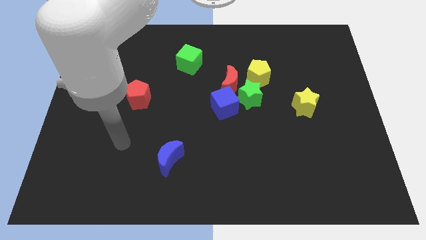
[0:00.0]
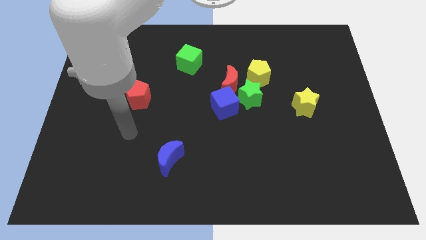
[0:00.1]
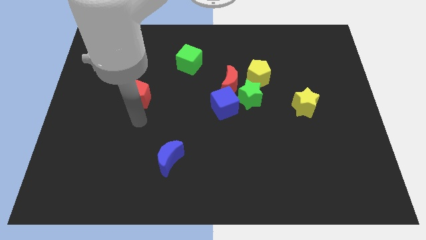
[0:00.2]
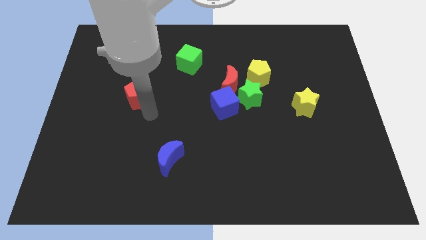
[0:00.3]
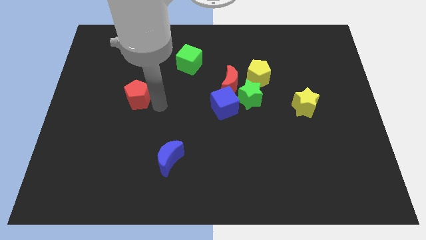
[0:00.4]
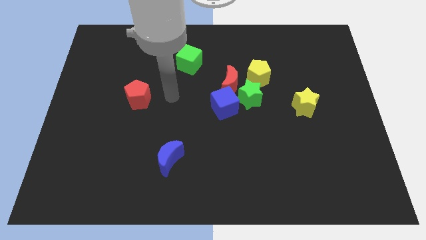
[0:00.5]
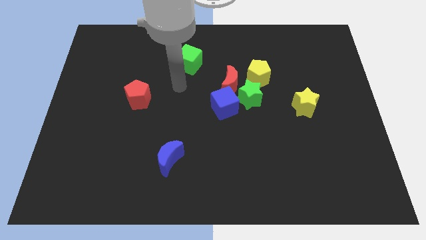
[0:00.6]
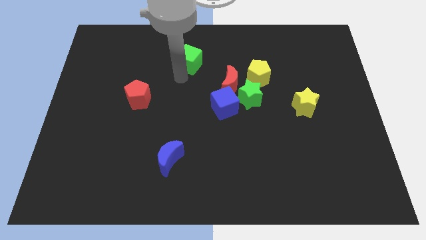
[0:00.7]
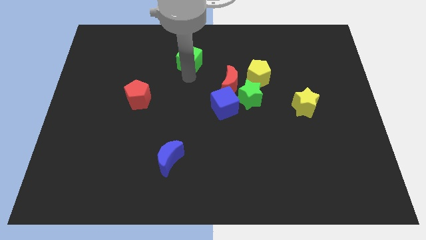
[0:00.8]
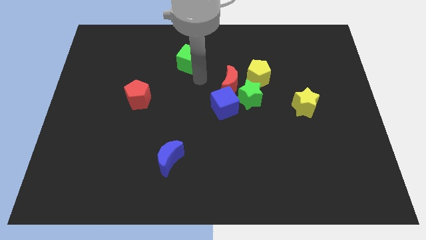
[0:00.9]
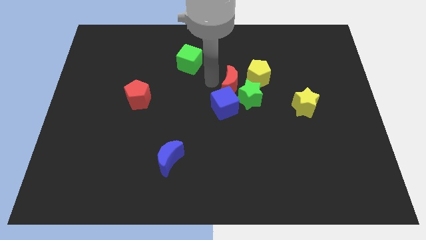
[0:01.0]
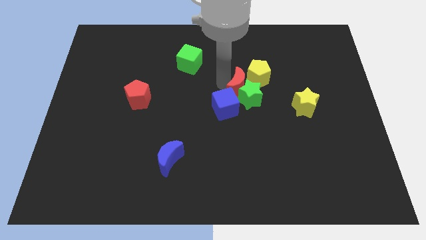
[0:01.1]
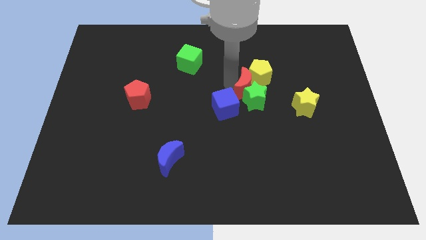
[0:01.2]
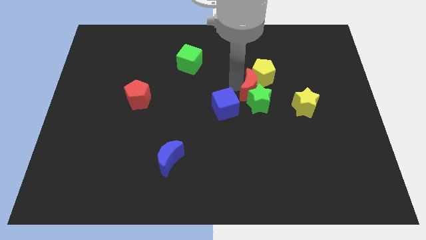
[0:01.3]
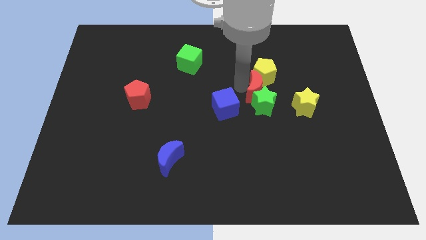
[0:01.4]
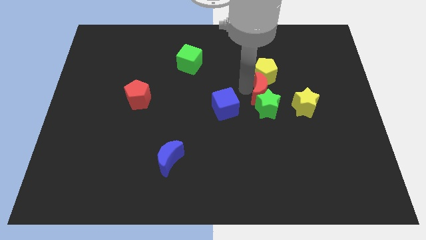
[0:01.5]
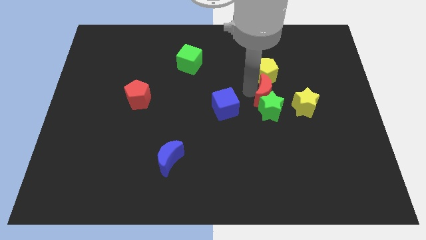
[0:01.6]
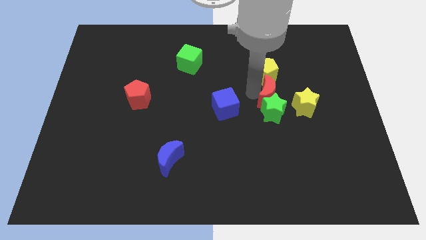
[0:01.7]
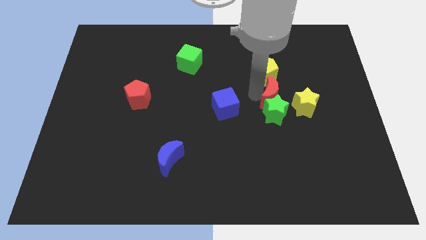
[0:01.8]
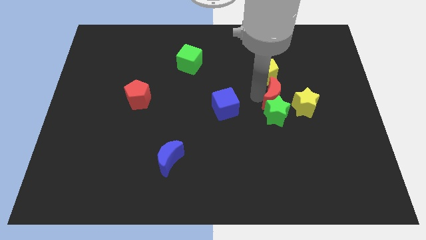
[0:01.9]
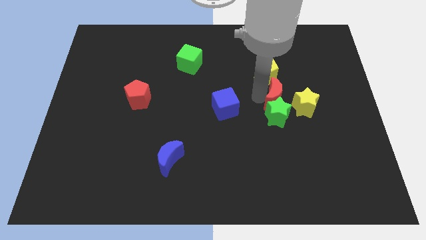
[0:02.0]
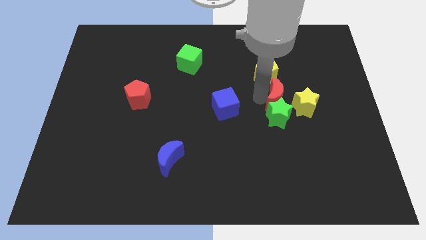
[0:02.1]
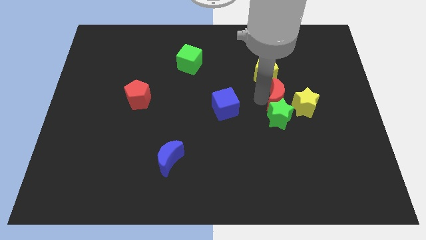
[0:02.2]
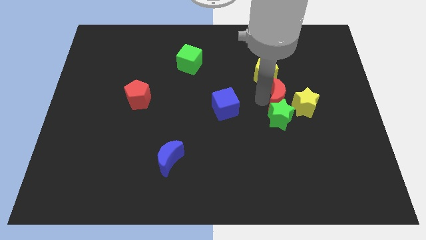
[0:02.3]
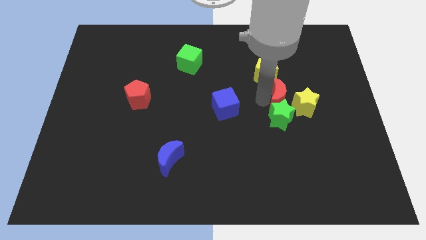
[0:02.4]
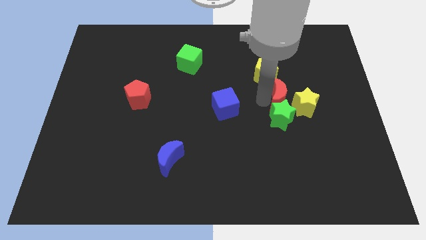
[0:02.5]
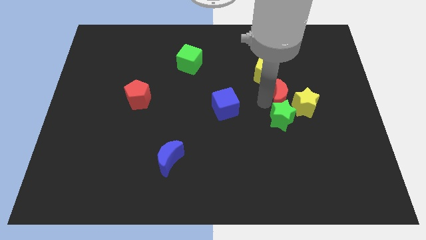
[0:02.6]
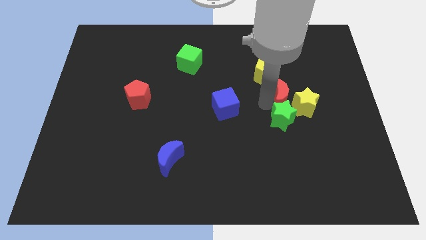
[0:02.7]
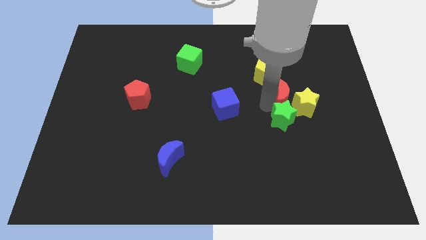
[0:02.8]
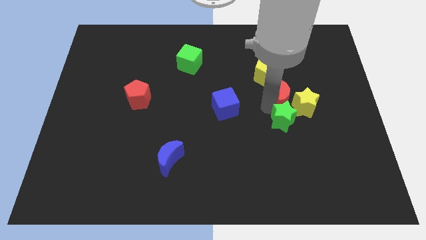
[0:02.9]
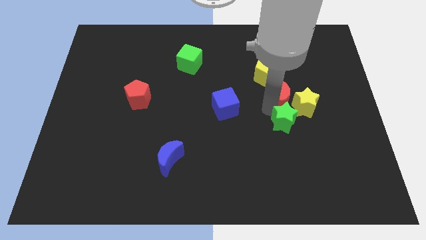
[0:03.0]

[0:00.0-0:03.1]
move the green star away from the red moon, yellow pentagon, and blue cube

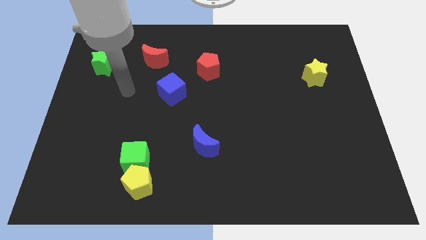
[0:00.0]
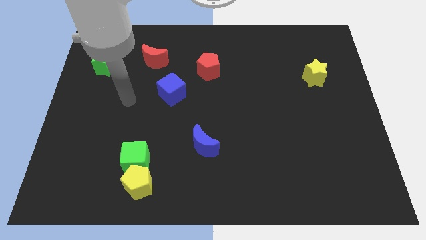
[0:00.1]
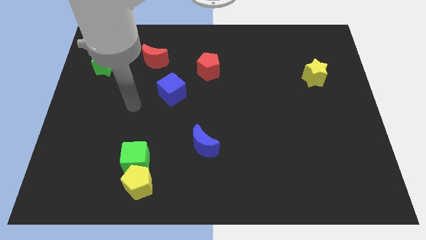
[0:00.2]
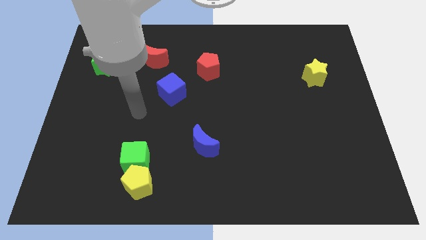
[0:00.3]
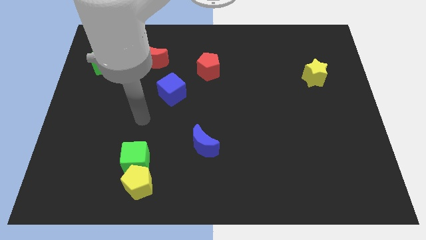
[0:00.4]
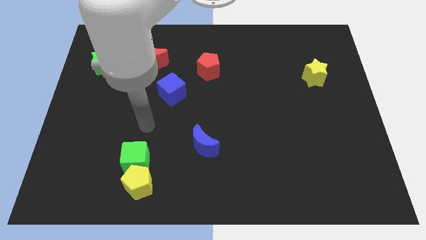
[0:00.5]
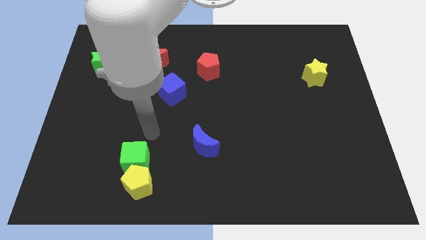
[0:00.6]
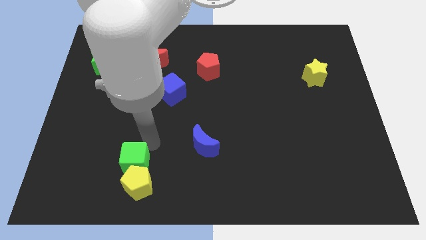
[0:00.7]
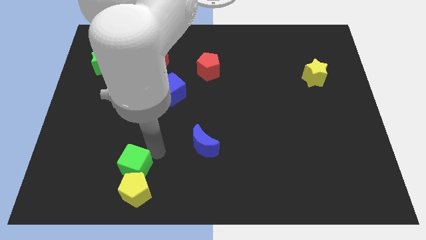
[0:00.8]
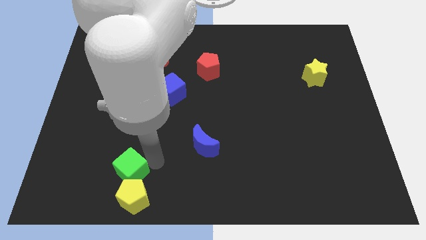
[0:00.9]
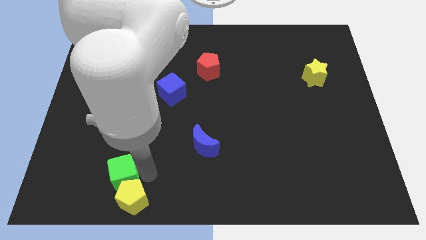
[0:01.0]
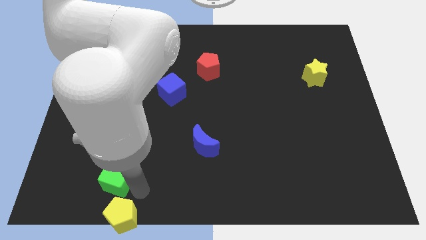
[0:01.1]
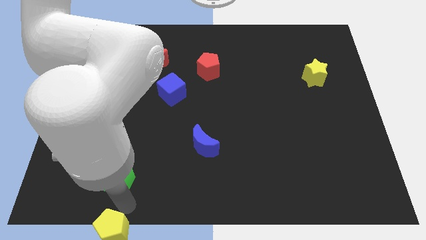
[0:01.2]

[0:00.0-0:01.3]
separate the green cube from the yellow pentagon

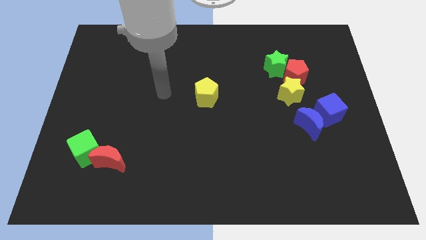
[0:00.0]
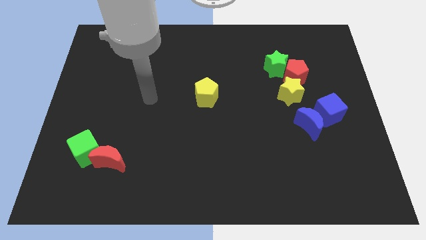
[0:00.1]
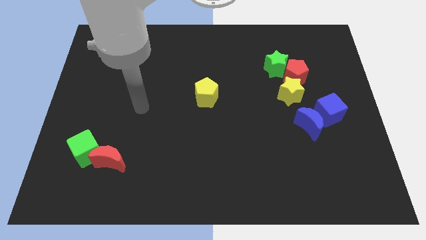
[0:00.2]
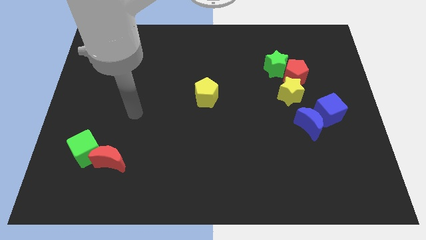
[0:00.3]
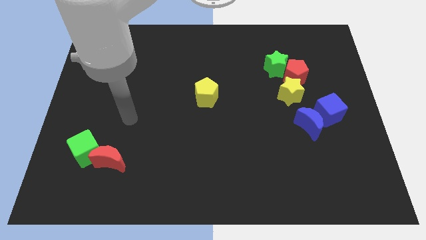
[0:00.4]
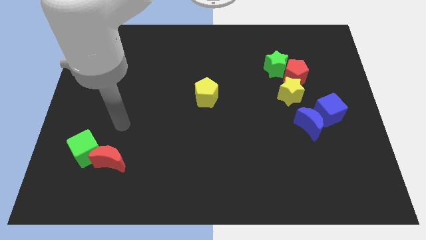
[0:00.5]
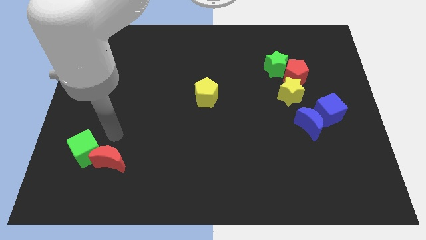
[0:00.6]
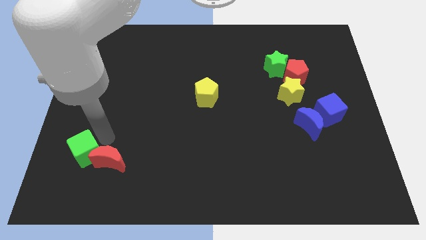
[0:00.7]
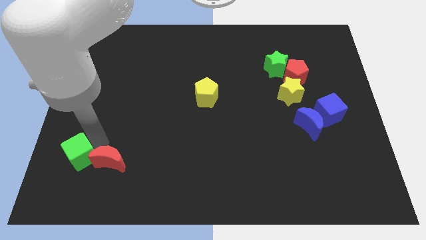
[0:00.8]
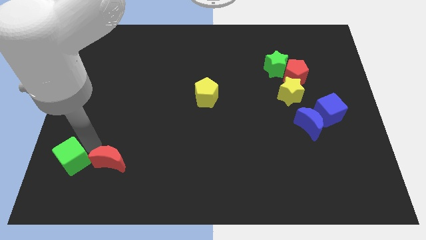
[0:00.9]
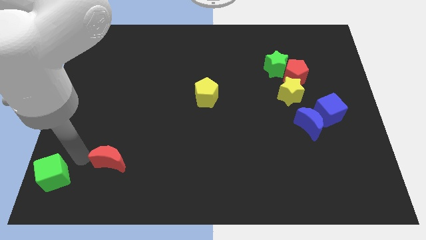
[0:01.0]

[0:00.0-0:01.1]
separate the red moon from the green cube

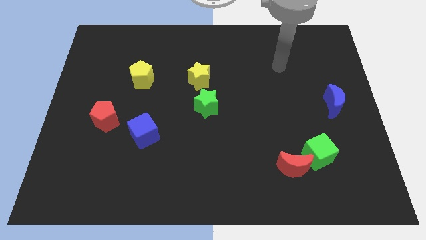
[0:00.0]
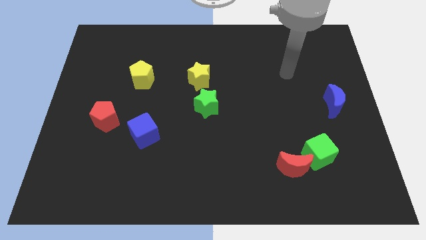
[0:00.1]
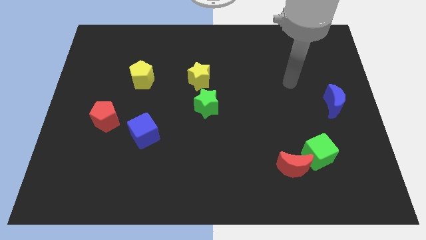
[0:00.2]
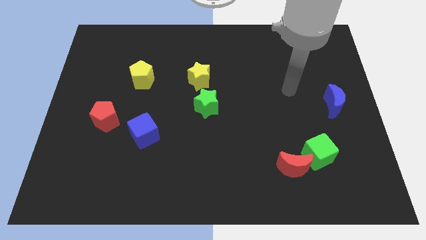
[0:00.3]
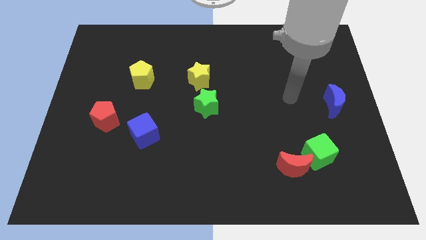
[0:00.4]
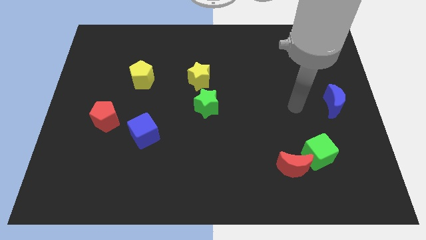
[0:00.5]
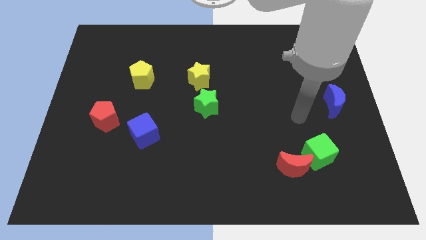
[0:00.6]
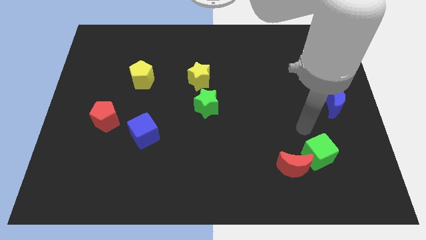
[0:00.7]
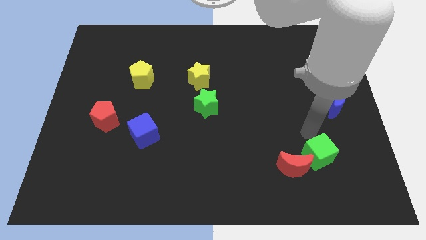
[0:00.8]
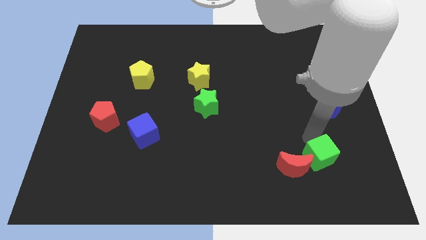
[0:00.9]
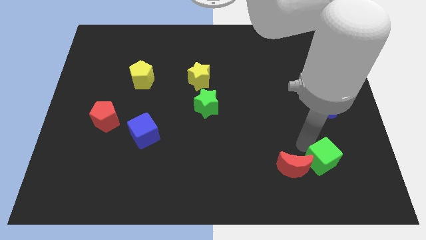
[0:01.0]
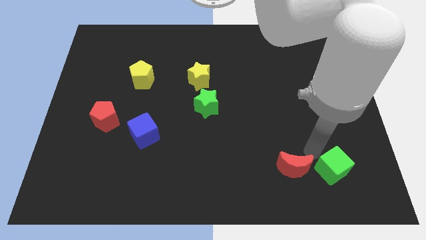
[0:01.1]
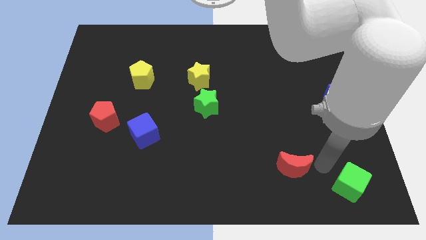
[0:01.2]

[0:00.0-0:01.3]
move the red moon away from the green cube

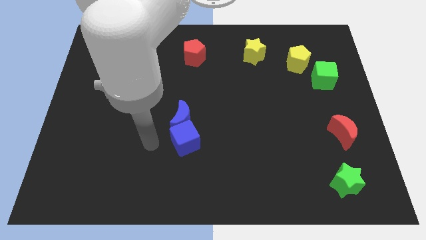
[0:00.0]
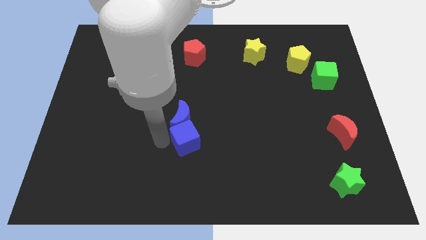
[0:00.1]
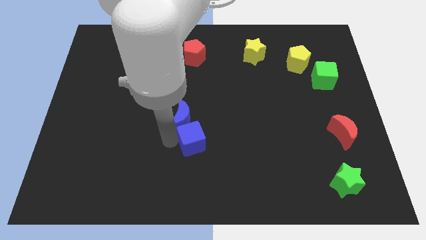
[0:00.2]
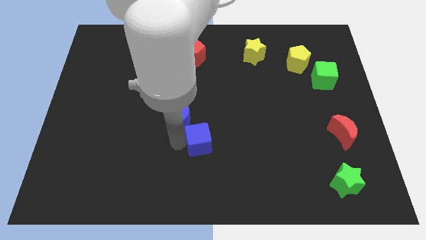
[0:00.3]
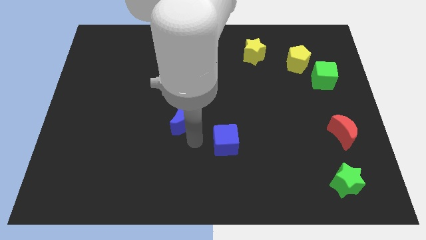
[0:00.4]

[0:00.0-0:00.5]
pull the blue moon apart from the blue cube

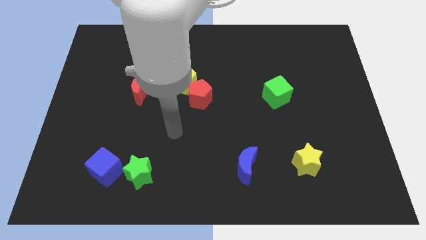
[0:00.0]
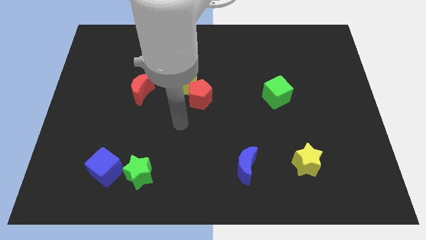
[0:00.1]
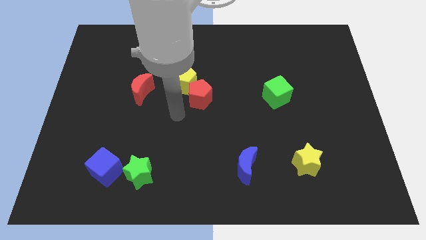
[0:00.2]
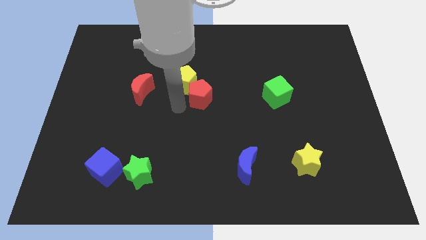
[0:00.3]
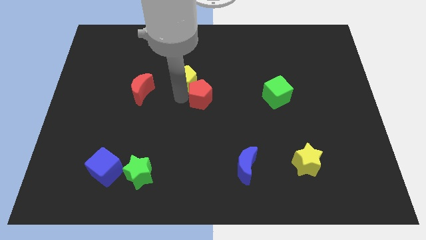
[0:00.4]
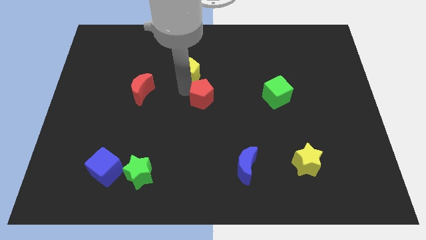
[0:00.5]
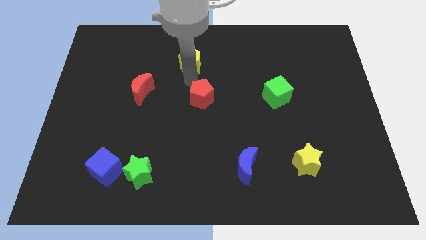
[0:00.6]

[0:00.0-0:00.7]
separate the red pentagon from the yellow pentagon

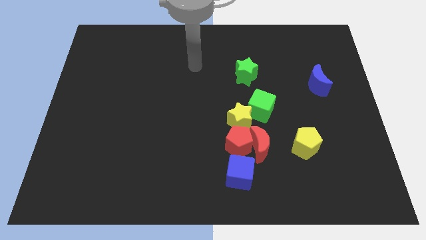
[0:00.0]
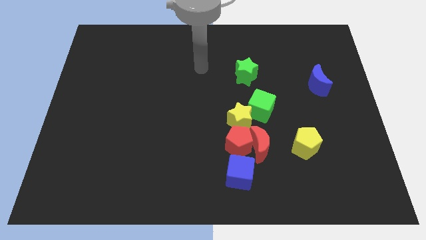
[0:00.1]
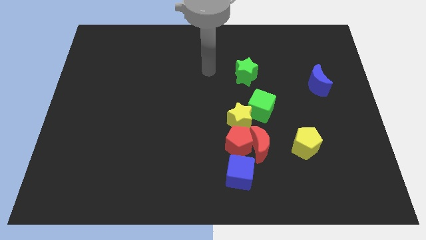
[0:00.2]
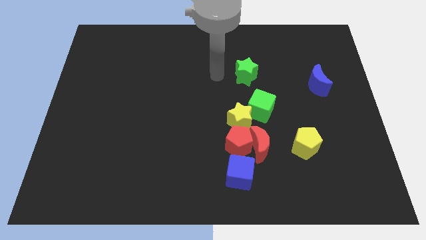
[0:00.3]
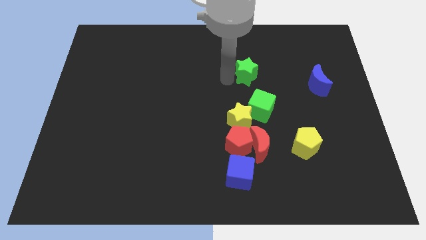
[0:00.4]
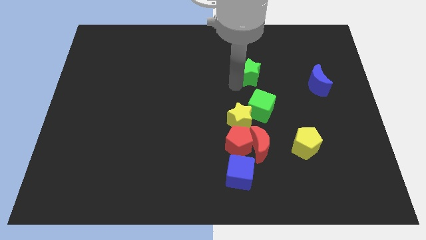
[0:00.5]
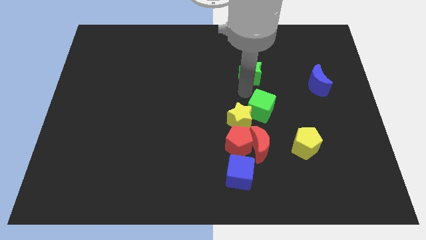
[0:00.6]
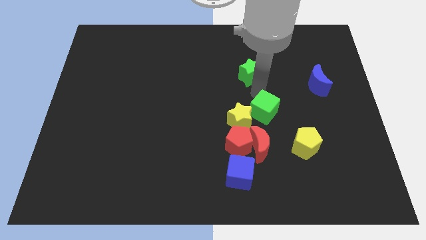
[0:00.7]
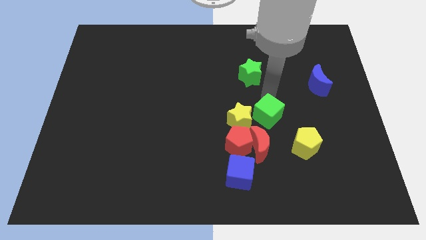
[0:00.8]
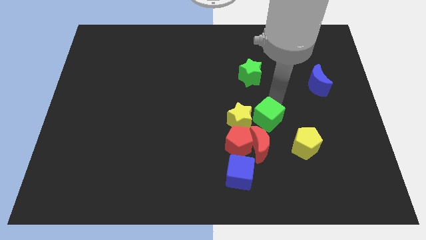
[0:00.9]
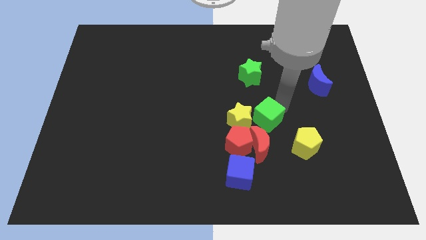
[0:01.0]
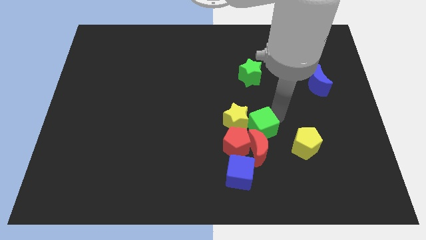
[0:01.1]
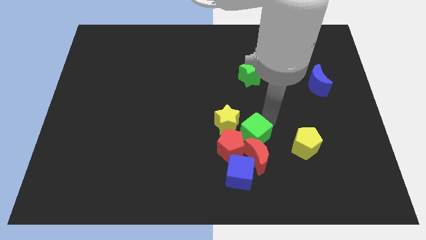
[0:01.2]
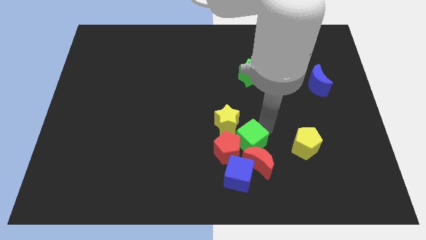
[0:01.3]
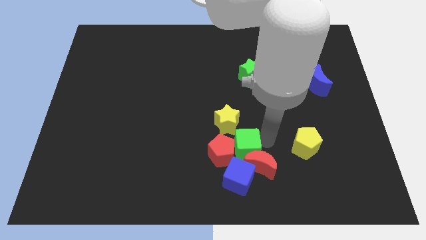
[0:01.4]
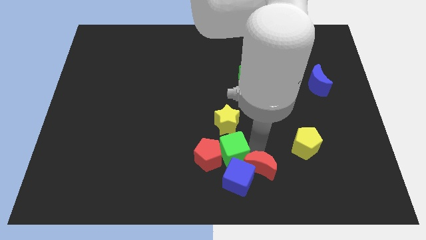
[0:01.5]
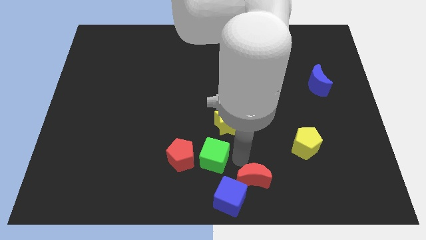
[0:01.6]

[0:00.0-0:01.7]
separate the red pentagon from the group
